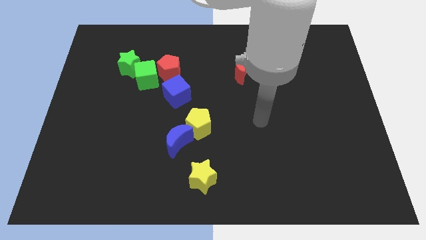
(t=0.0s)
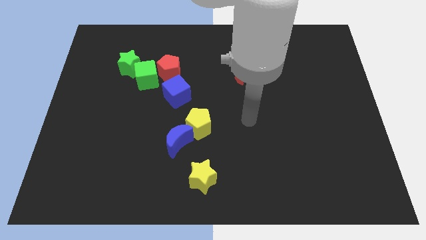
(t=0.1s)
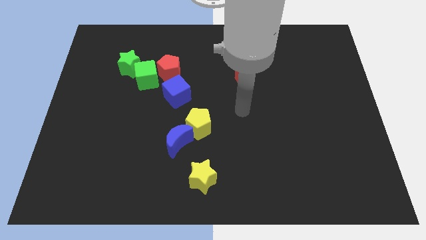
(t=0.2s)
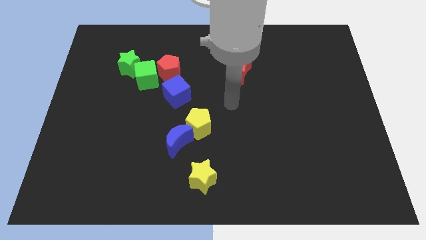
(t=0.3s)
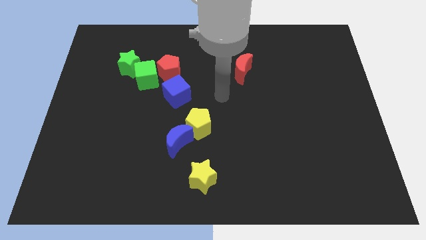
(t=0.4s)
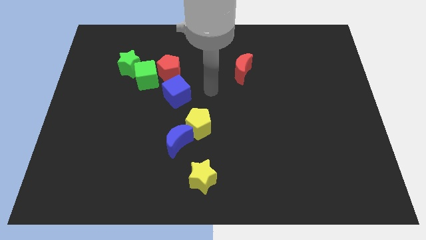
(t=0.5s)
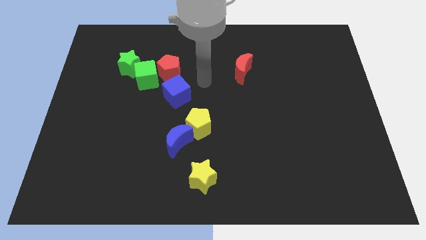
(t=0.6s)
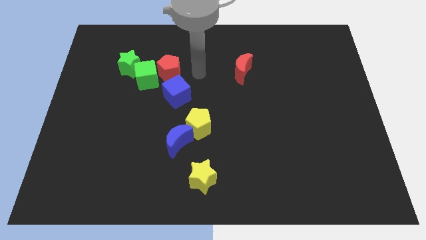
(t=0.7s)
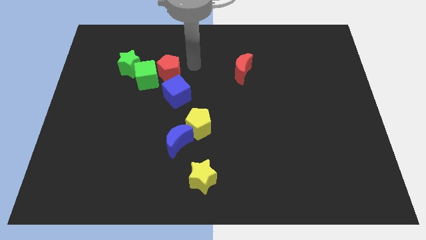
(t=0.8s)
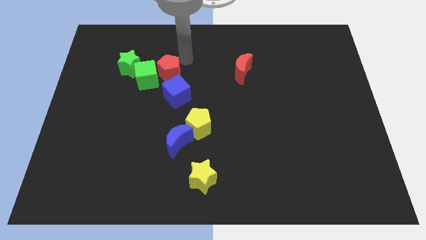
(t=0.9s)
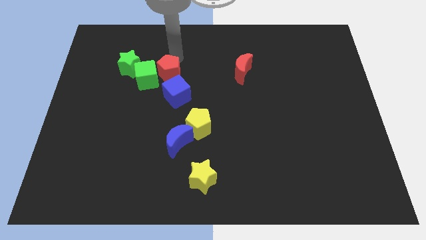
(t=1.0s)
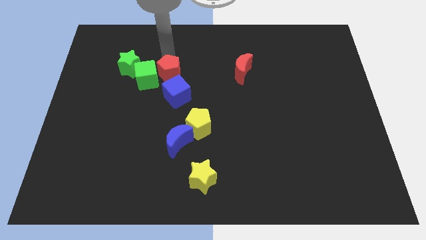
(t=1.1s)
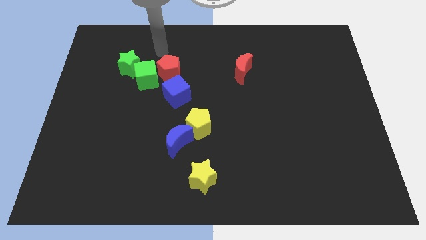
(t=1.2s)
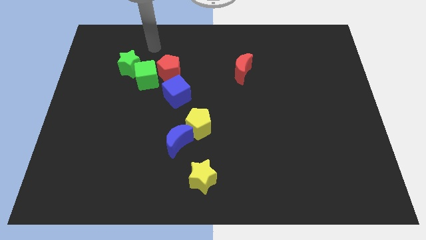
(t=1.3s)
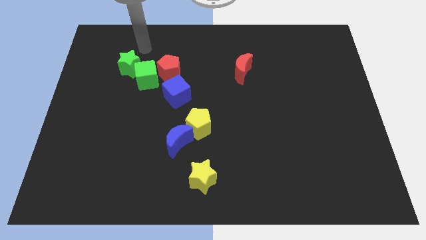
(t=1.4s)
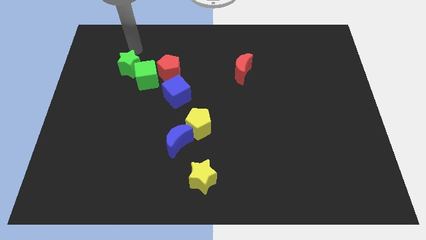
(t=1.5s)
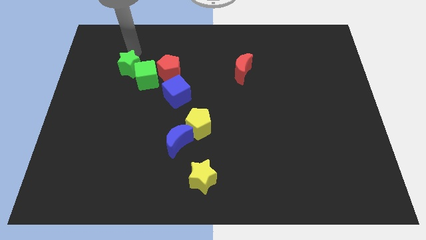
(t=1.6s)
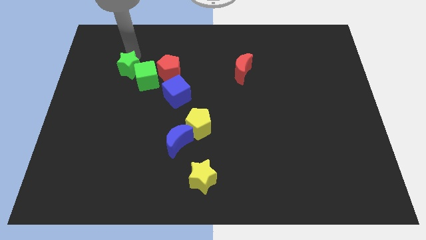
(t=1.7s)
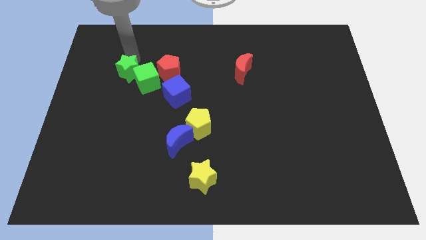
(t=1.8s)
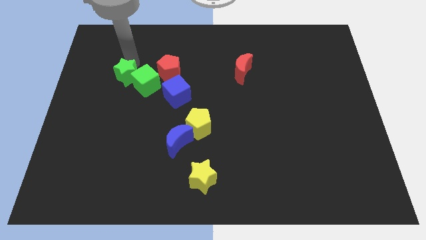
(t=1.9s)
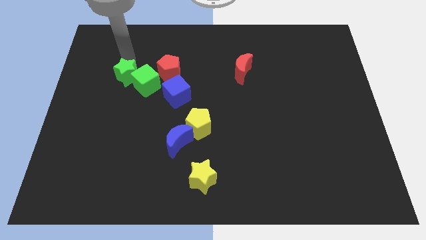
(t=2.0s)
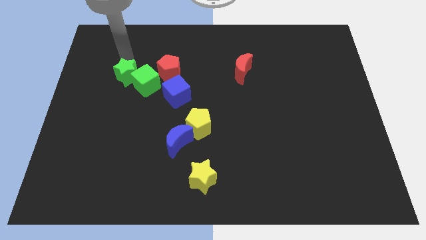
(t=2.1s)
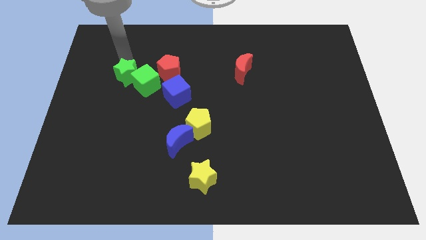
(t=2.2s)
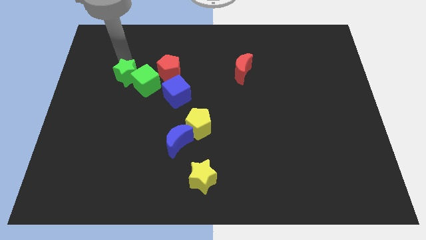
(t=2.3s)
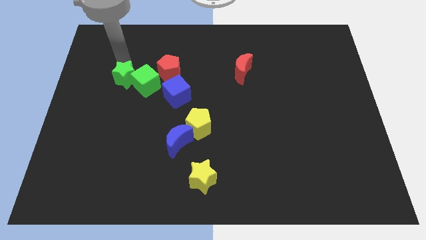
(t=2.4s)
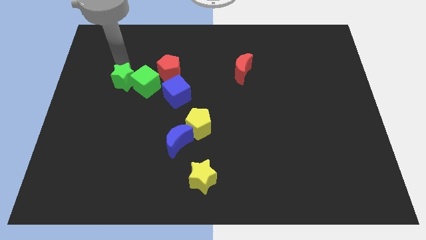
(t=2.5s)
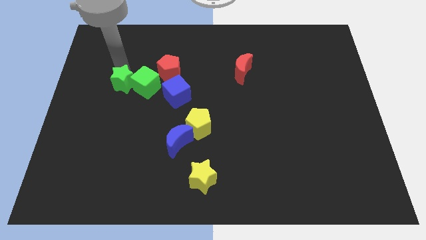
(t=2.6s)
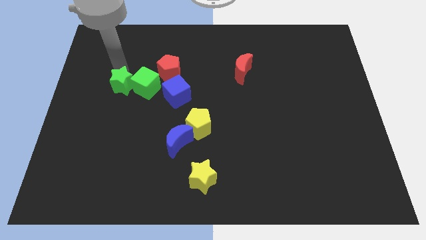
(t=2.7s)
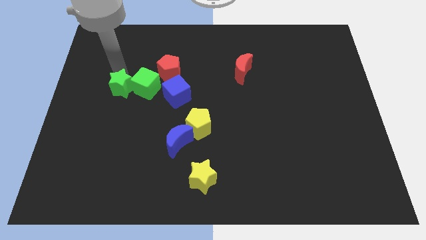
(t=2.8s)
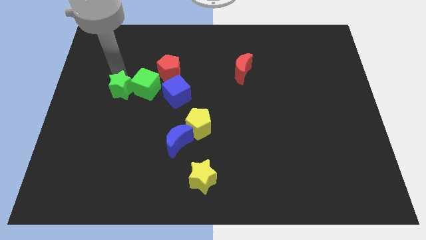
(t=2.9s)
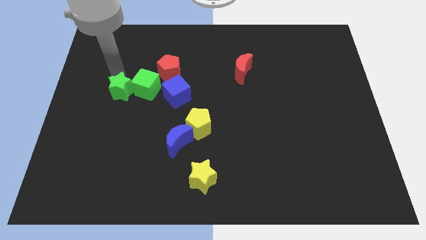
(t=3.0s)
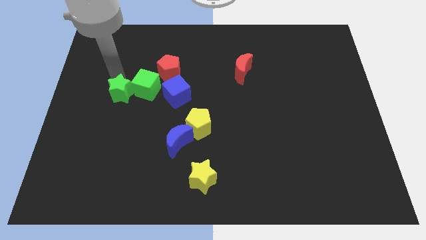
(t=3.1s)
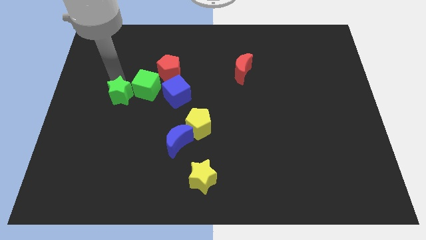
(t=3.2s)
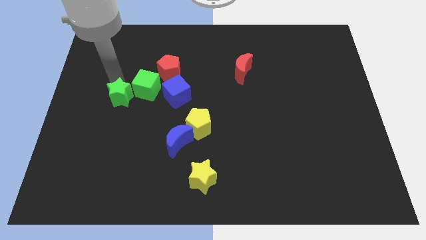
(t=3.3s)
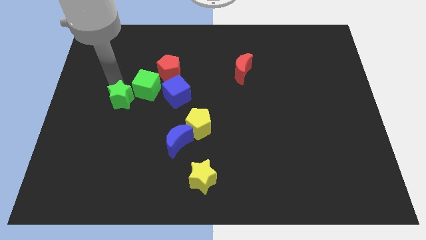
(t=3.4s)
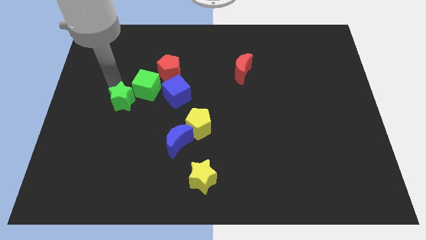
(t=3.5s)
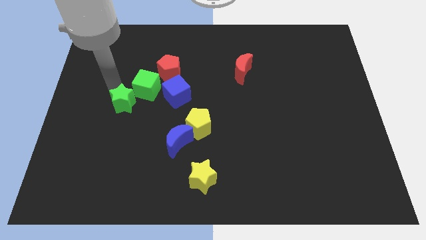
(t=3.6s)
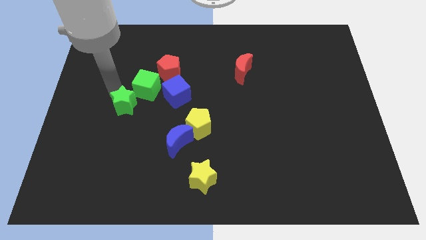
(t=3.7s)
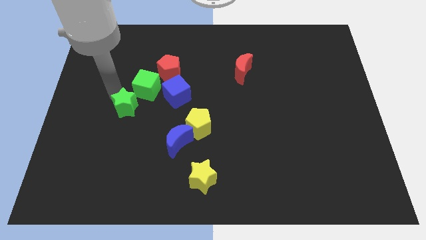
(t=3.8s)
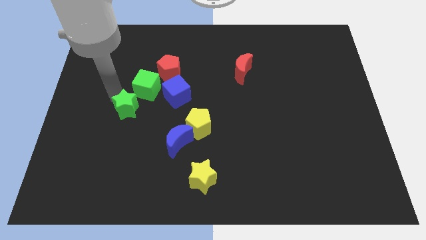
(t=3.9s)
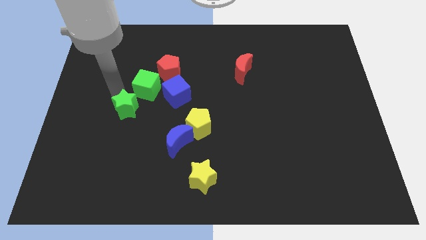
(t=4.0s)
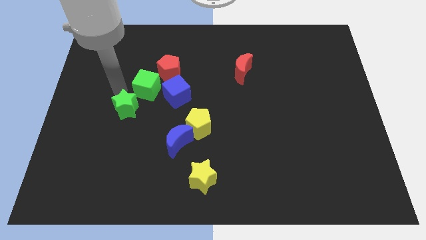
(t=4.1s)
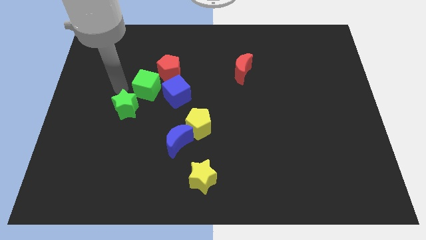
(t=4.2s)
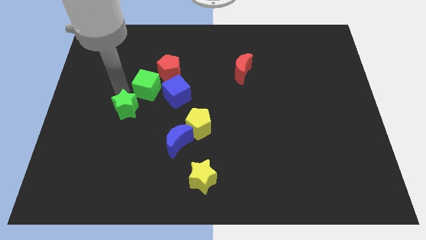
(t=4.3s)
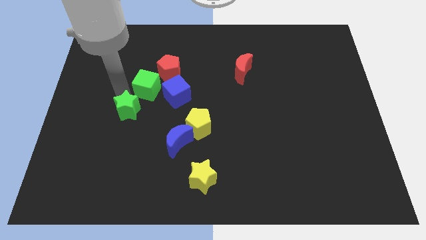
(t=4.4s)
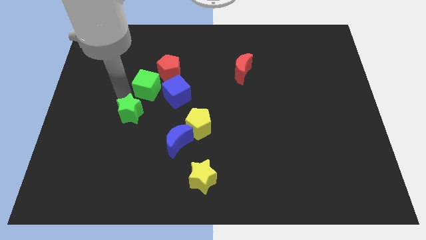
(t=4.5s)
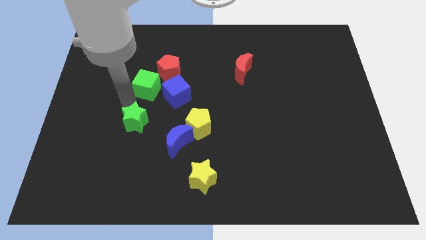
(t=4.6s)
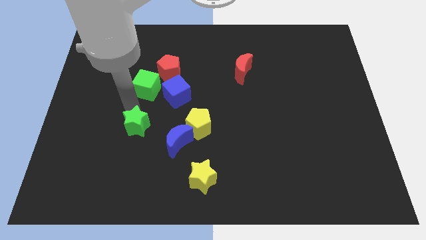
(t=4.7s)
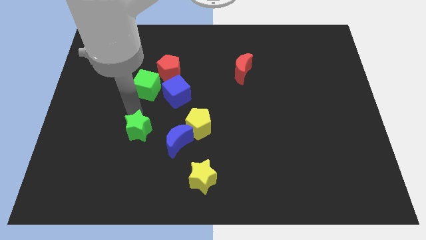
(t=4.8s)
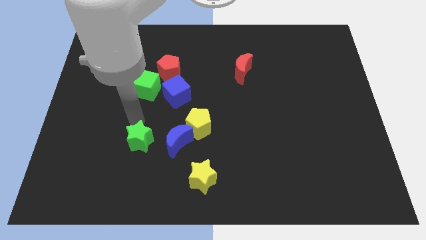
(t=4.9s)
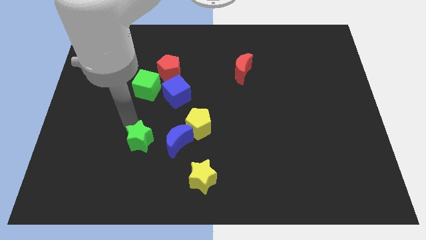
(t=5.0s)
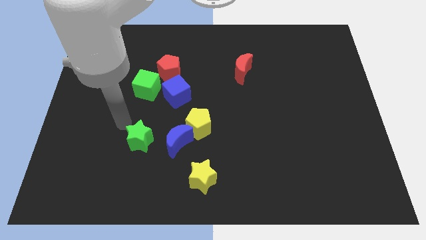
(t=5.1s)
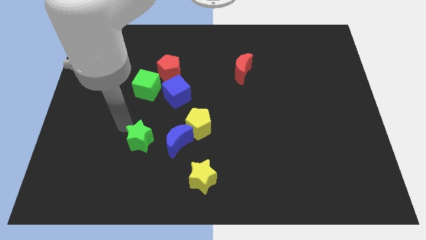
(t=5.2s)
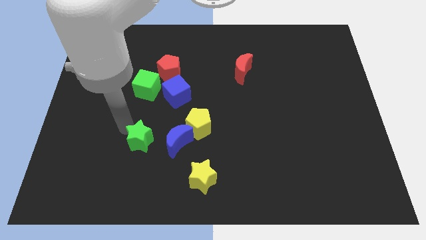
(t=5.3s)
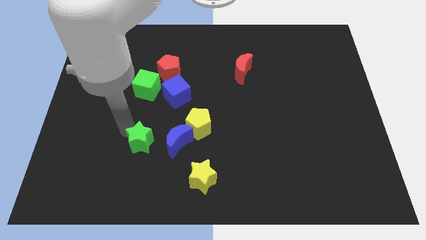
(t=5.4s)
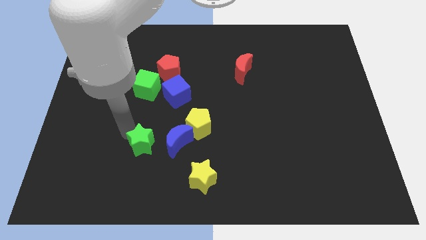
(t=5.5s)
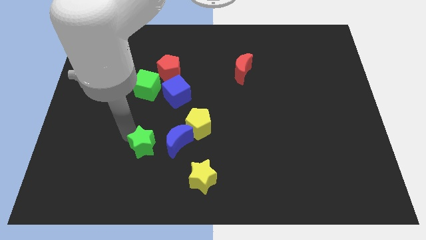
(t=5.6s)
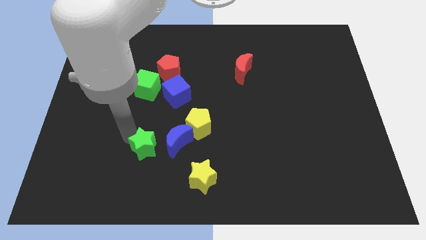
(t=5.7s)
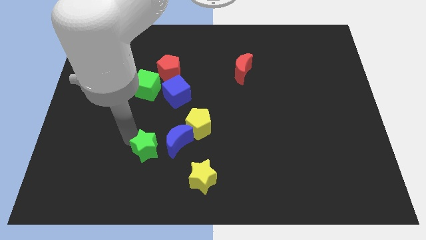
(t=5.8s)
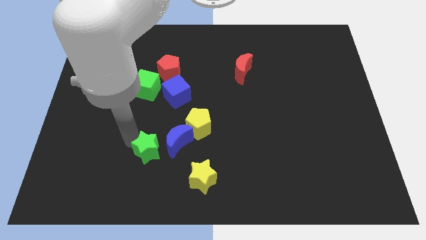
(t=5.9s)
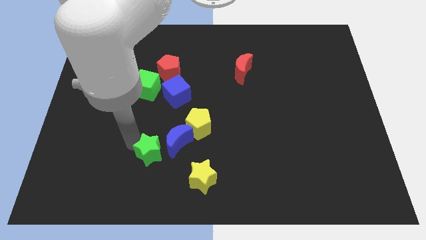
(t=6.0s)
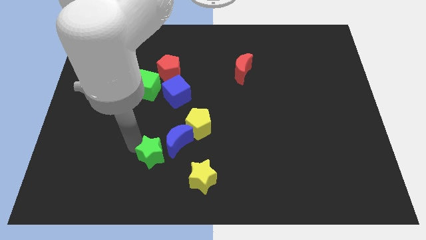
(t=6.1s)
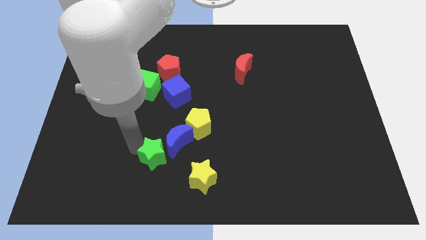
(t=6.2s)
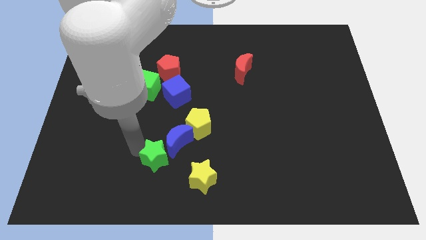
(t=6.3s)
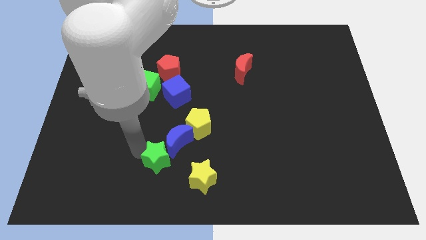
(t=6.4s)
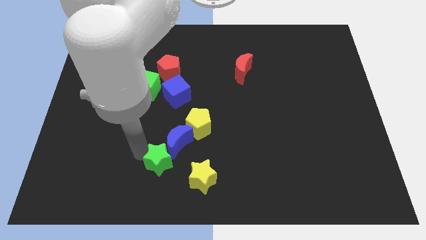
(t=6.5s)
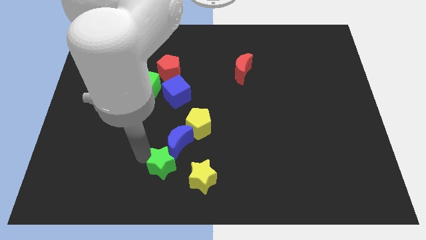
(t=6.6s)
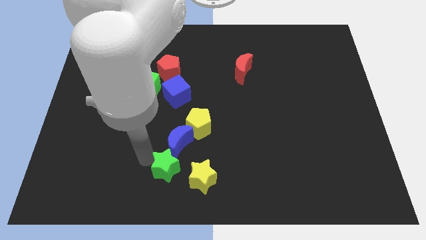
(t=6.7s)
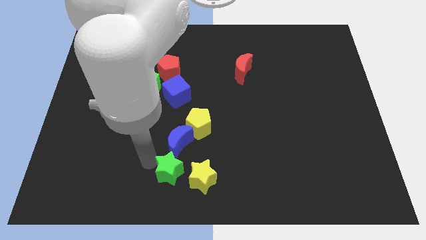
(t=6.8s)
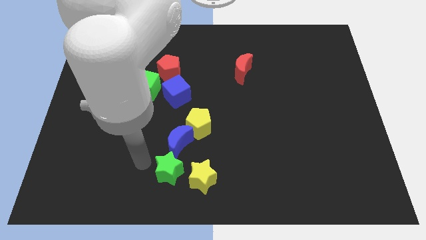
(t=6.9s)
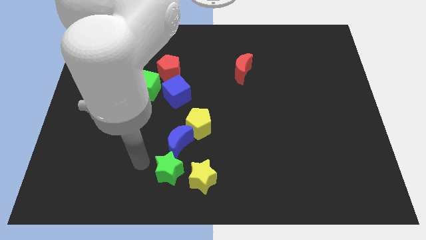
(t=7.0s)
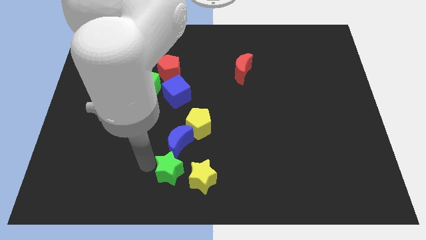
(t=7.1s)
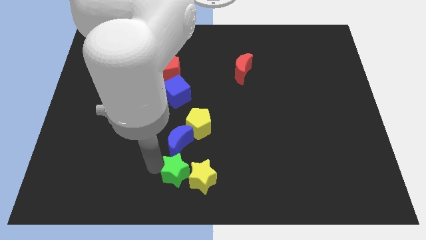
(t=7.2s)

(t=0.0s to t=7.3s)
put the green star to the yellow star

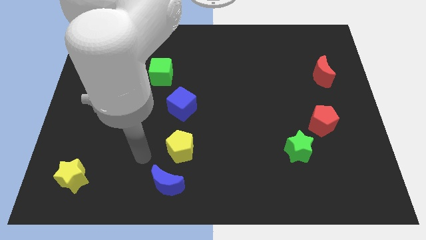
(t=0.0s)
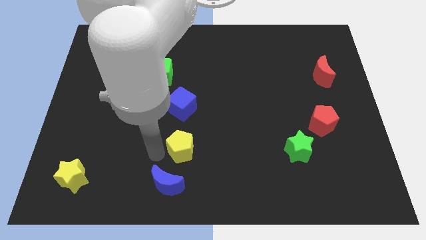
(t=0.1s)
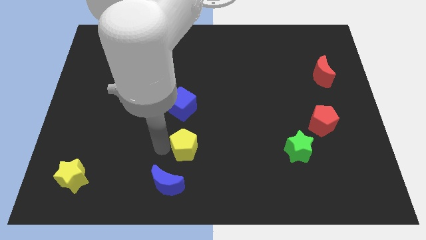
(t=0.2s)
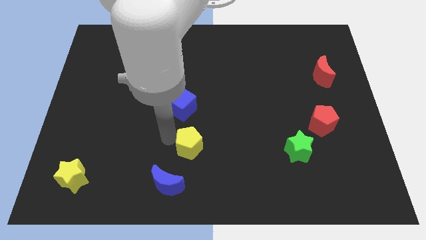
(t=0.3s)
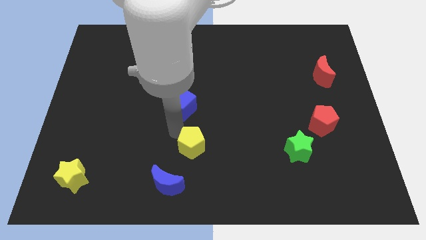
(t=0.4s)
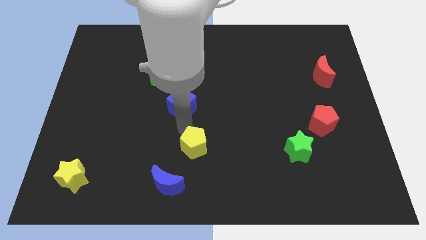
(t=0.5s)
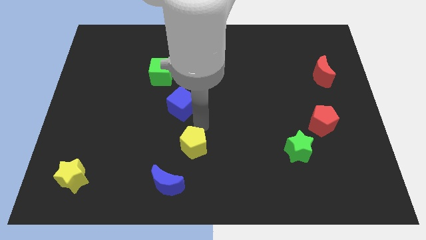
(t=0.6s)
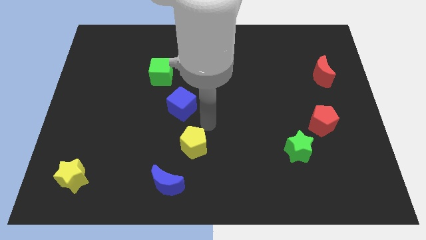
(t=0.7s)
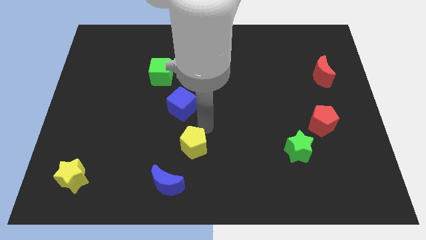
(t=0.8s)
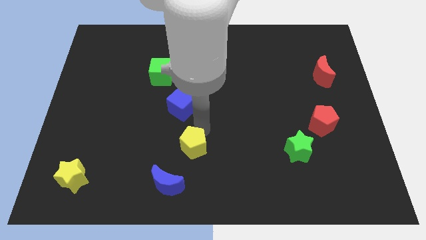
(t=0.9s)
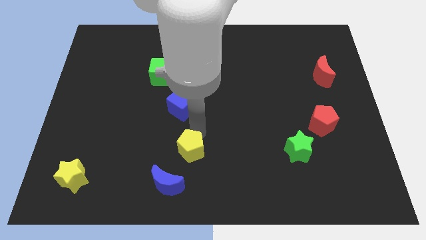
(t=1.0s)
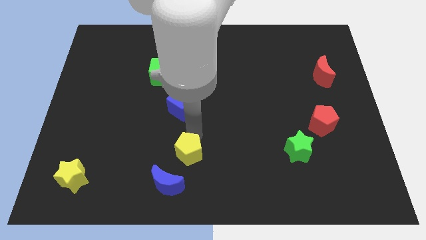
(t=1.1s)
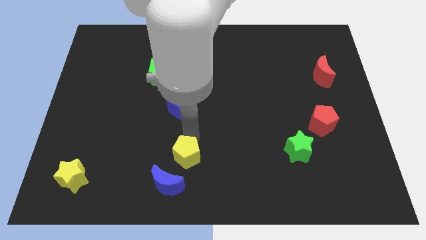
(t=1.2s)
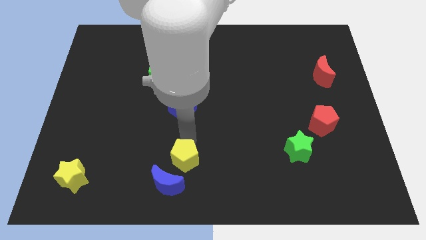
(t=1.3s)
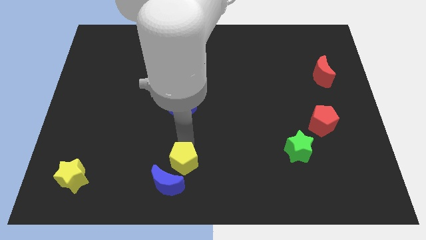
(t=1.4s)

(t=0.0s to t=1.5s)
put the yellow pentagon close to the blue moon
